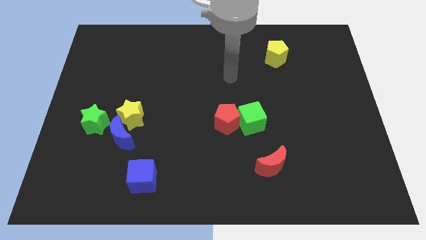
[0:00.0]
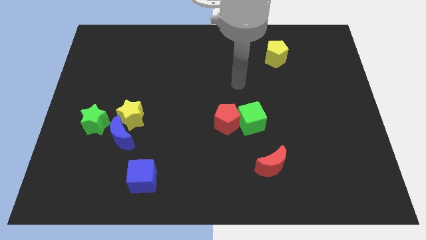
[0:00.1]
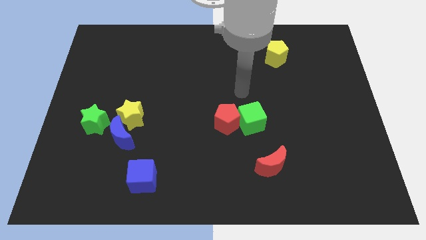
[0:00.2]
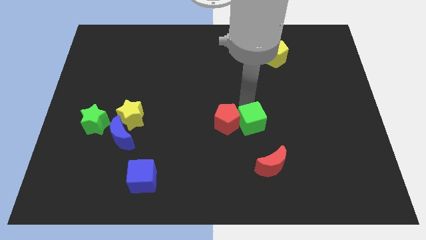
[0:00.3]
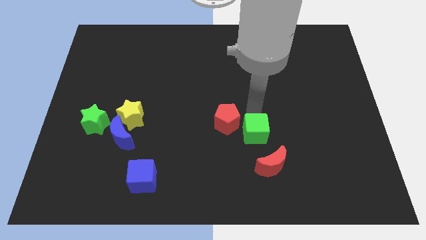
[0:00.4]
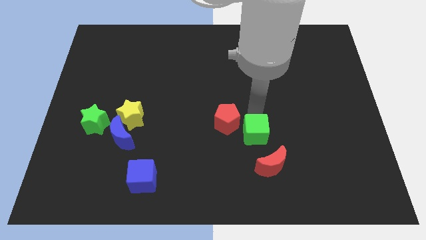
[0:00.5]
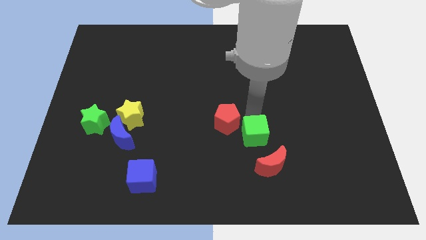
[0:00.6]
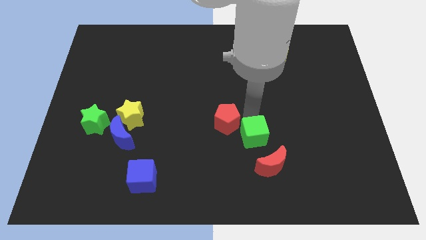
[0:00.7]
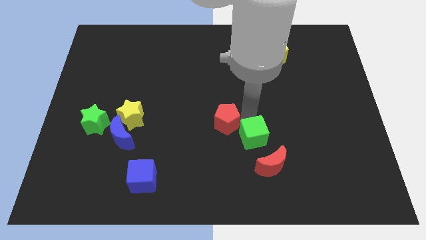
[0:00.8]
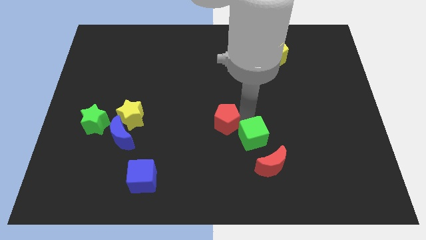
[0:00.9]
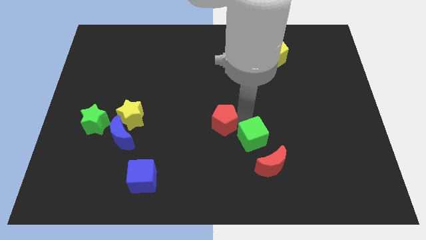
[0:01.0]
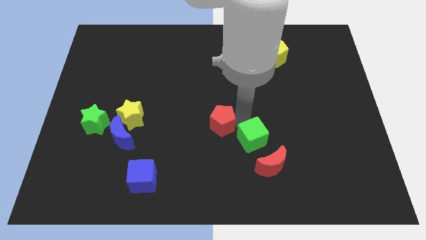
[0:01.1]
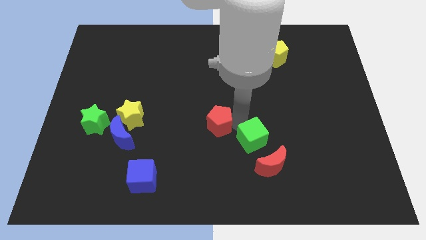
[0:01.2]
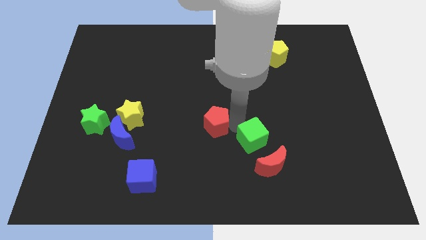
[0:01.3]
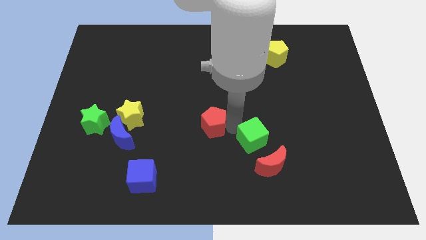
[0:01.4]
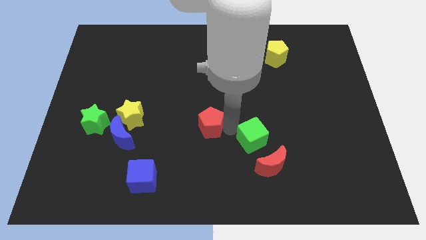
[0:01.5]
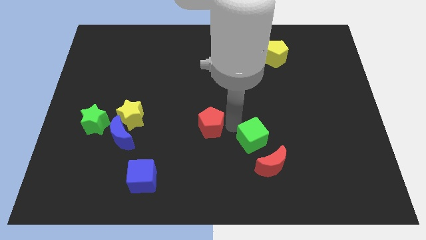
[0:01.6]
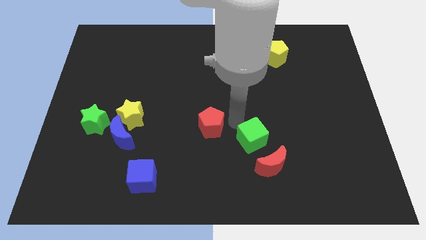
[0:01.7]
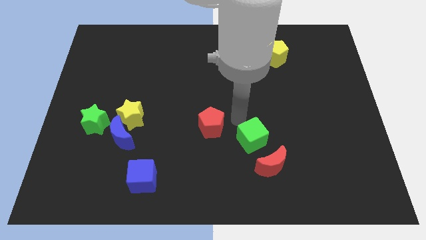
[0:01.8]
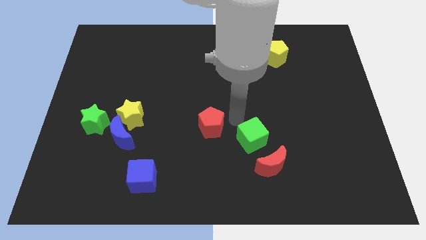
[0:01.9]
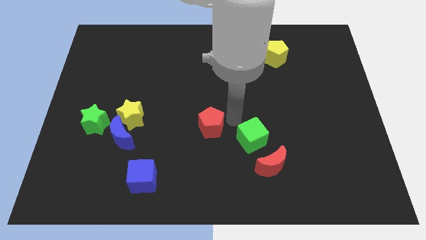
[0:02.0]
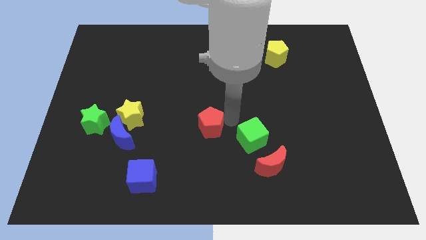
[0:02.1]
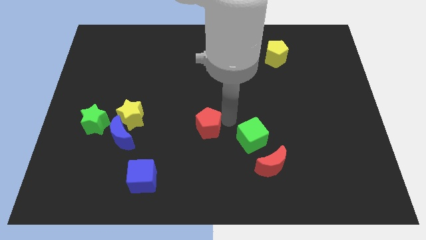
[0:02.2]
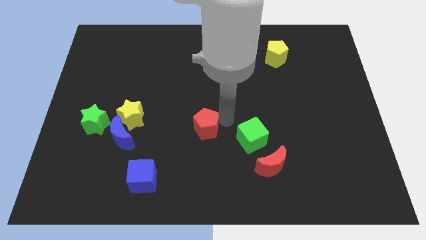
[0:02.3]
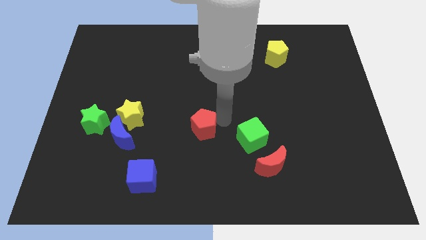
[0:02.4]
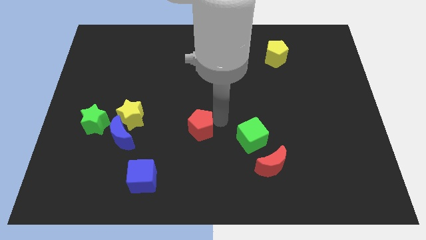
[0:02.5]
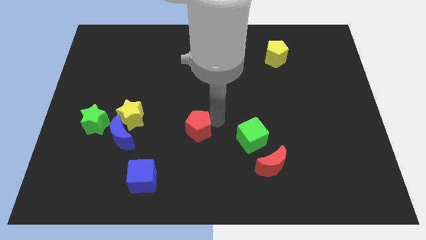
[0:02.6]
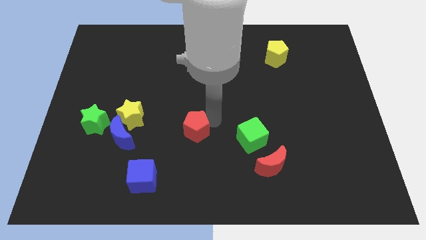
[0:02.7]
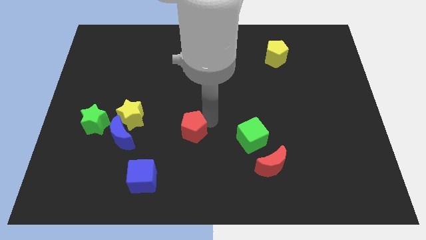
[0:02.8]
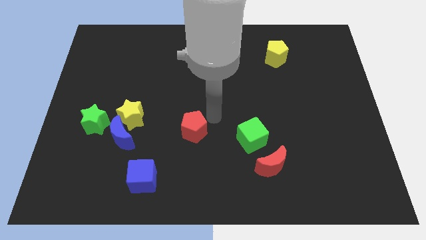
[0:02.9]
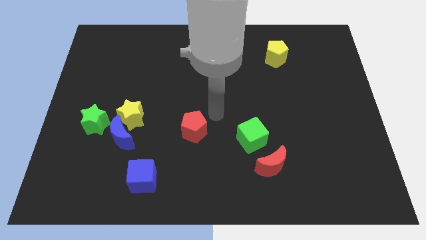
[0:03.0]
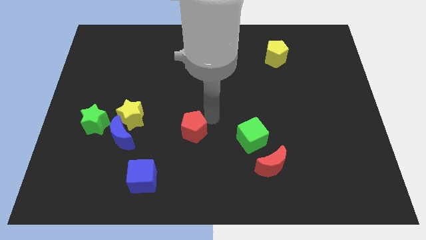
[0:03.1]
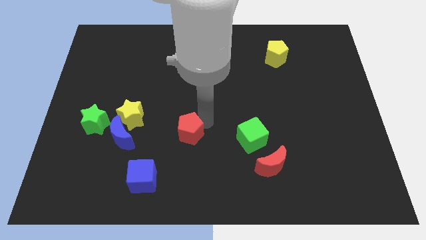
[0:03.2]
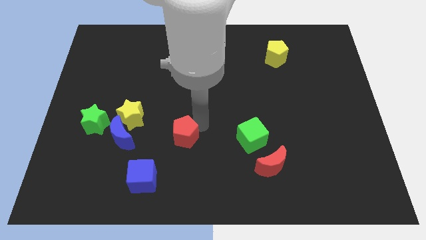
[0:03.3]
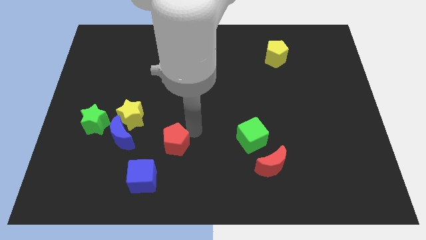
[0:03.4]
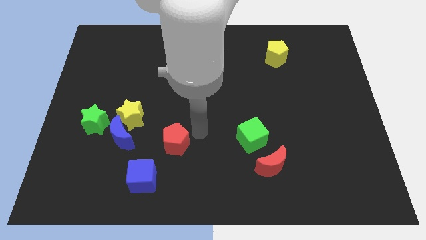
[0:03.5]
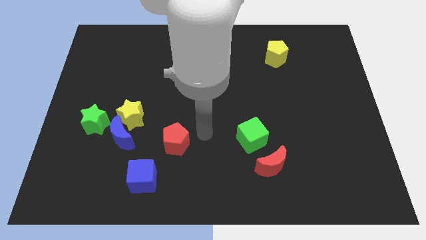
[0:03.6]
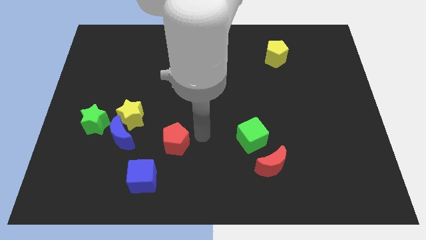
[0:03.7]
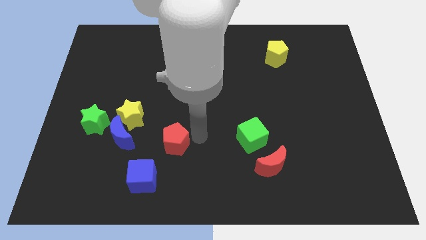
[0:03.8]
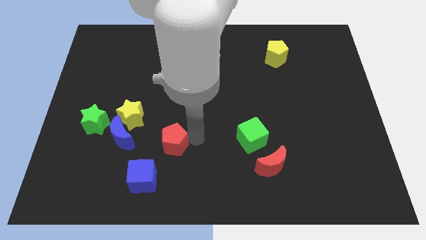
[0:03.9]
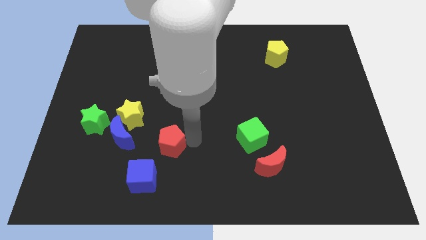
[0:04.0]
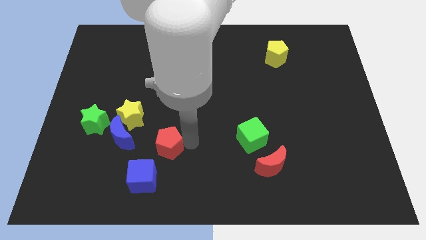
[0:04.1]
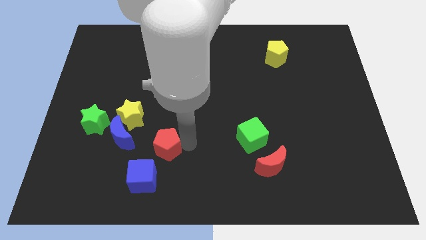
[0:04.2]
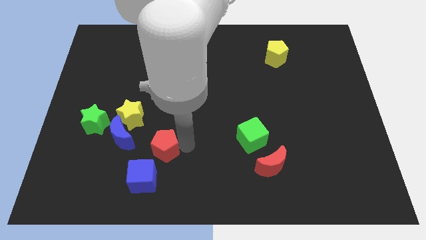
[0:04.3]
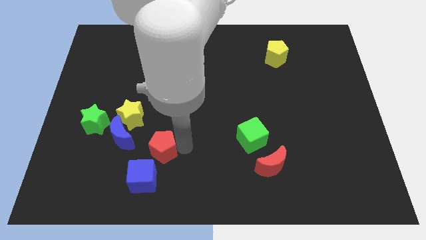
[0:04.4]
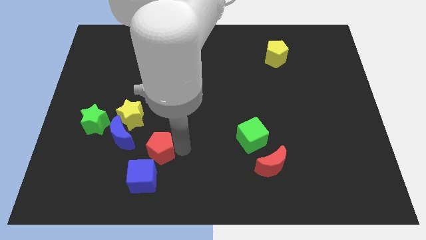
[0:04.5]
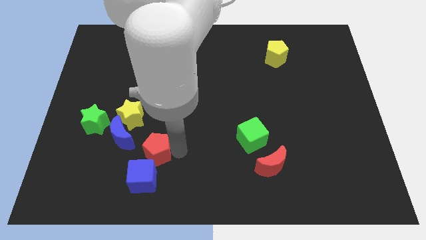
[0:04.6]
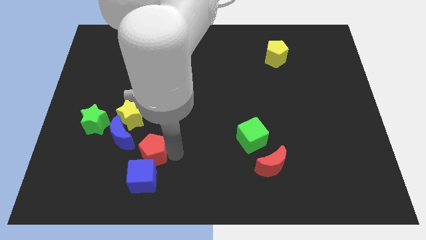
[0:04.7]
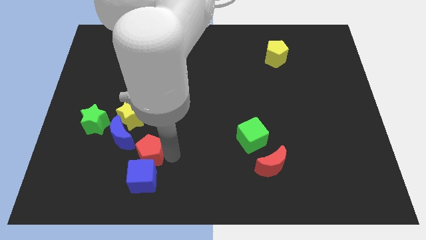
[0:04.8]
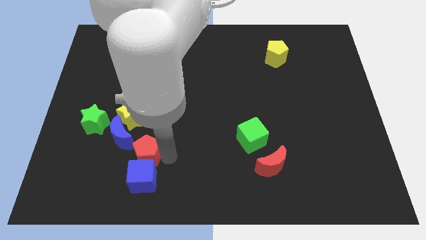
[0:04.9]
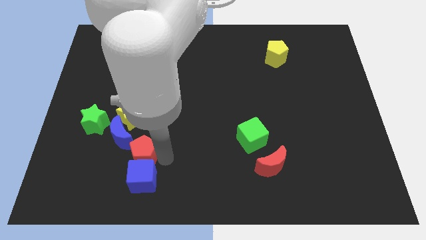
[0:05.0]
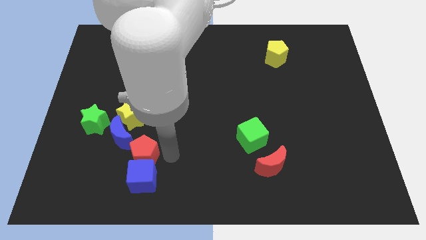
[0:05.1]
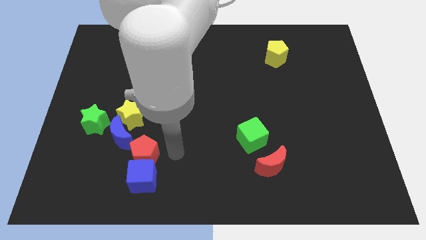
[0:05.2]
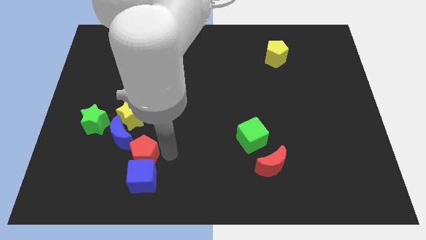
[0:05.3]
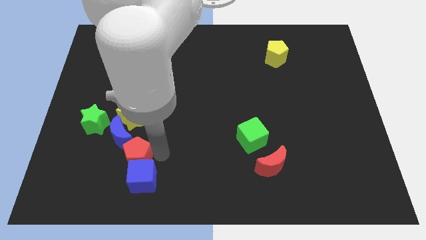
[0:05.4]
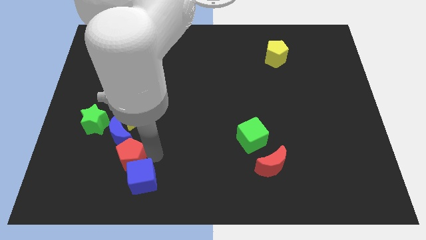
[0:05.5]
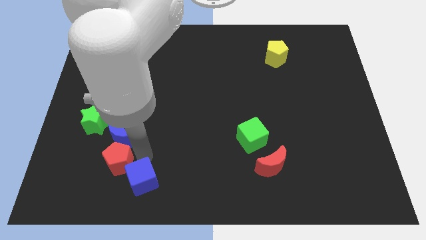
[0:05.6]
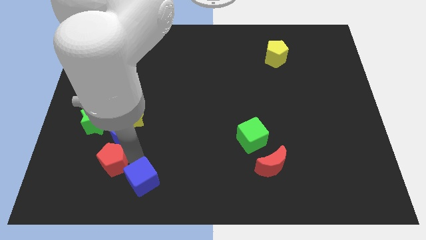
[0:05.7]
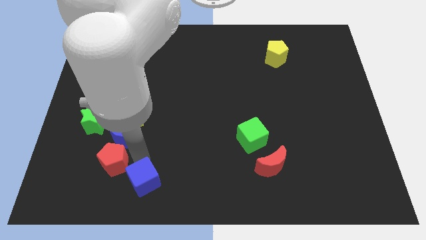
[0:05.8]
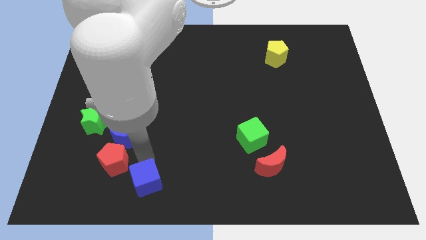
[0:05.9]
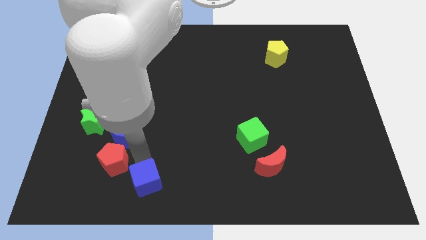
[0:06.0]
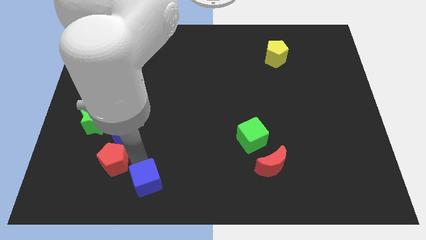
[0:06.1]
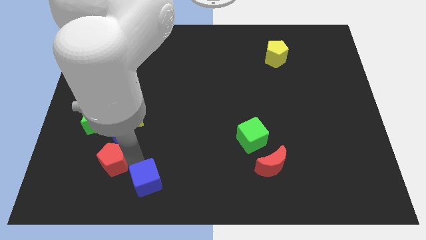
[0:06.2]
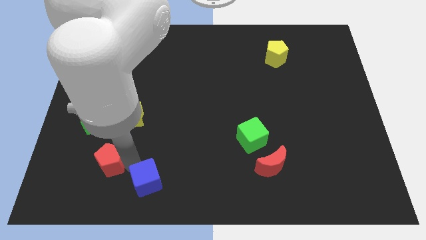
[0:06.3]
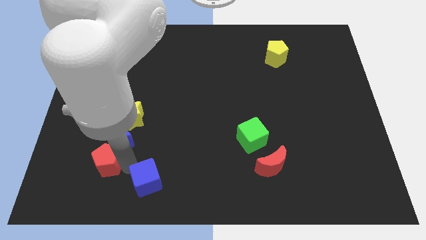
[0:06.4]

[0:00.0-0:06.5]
move the red pentagon below the green star
